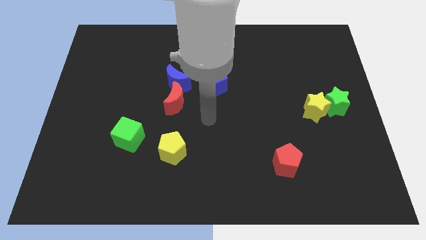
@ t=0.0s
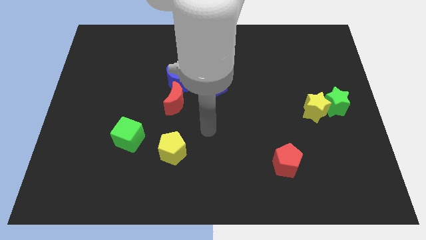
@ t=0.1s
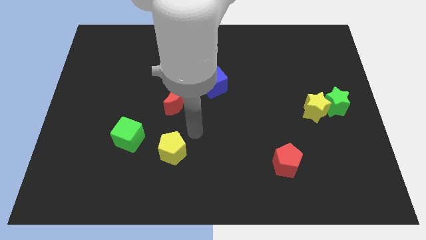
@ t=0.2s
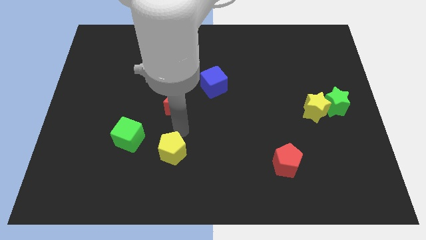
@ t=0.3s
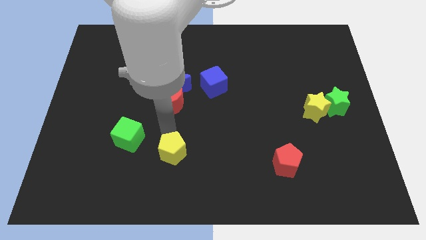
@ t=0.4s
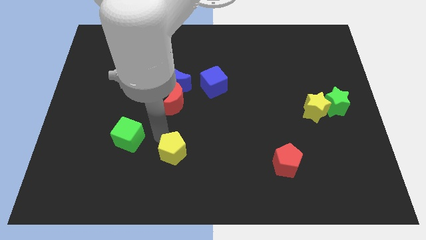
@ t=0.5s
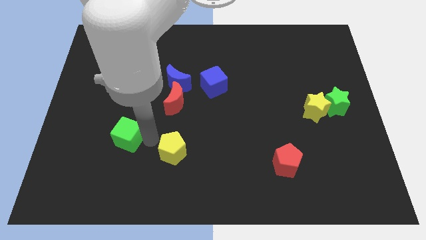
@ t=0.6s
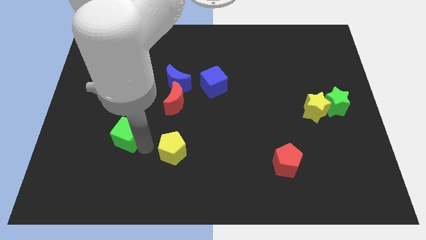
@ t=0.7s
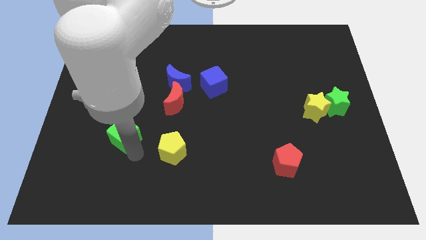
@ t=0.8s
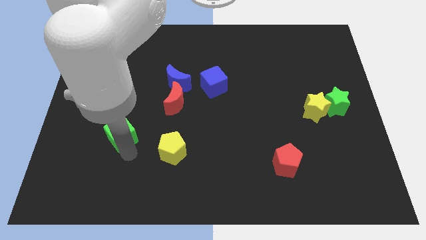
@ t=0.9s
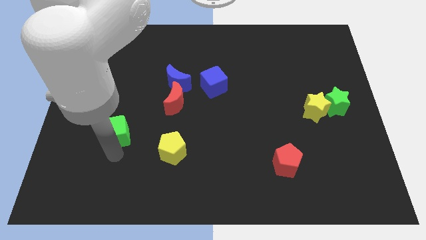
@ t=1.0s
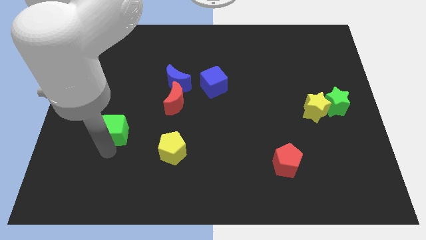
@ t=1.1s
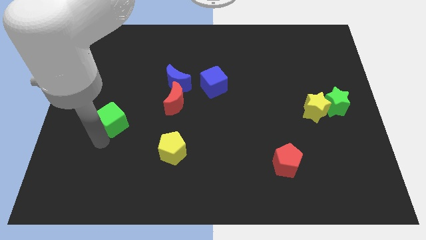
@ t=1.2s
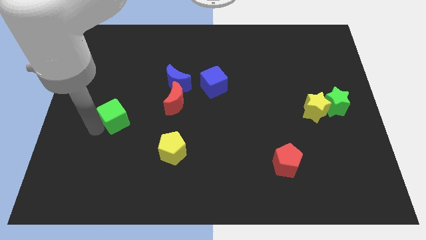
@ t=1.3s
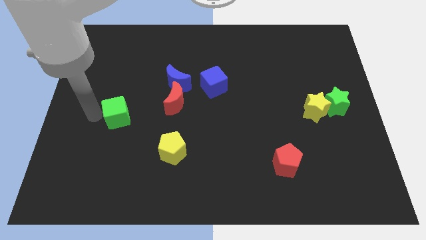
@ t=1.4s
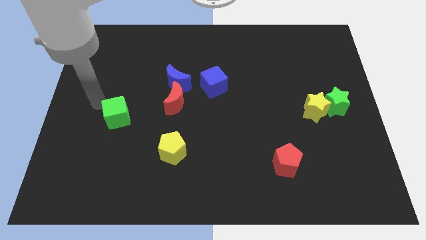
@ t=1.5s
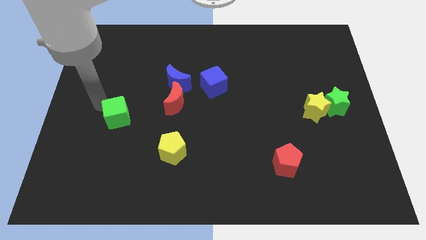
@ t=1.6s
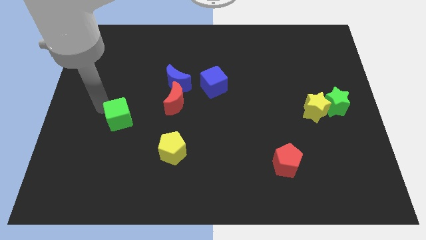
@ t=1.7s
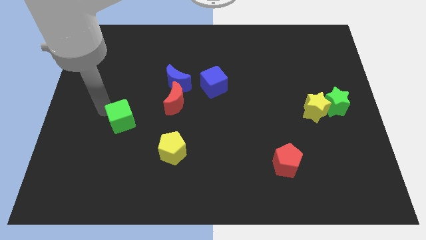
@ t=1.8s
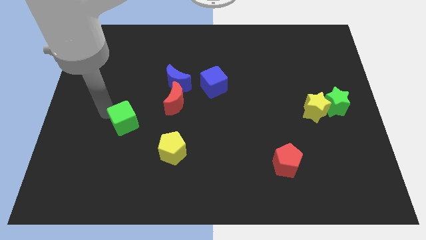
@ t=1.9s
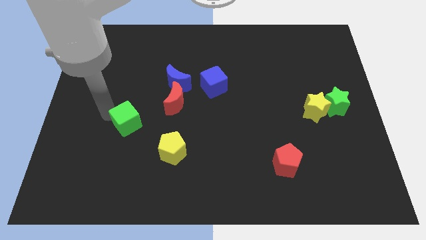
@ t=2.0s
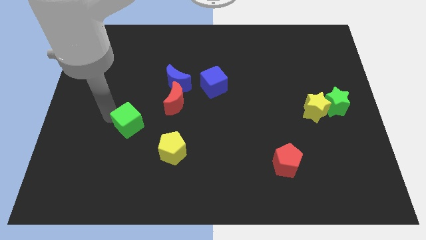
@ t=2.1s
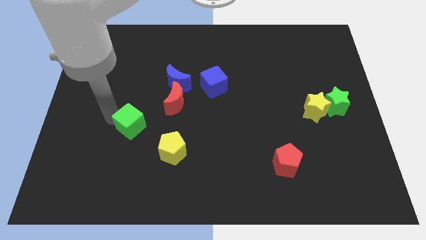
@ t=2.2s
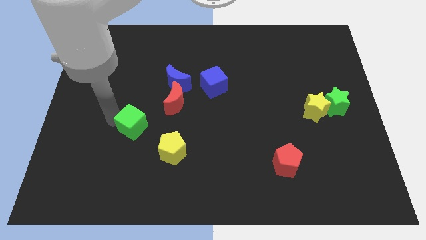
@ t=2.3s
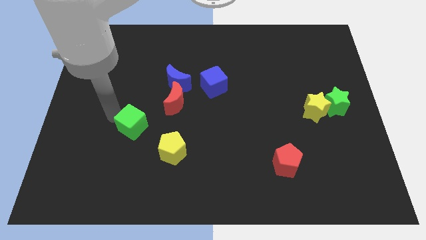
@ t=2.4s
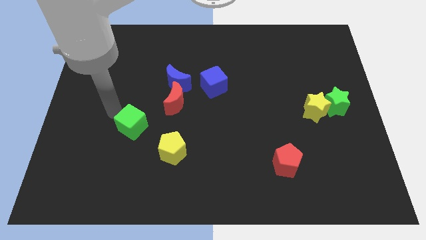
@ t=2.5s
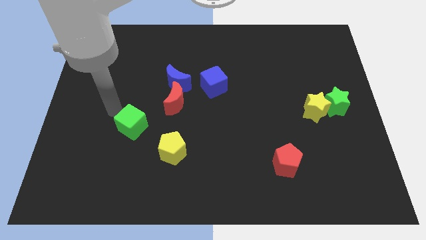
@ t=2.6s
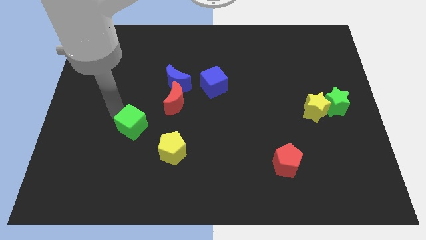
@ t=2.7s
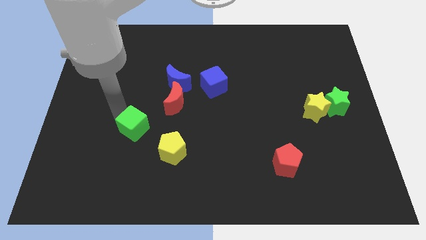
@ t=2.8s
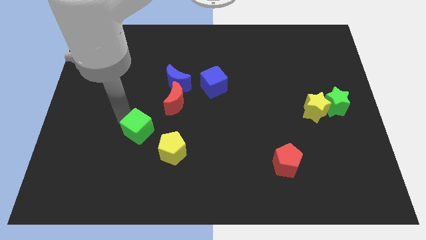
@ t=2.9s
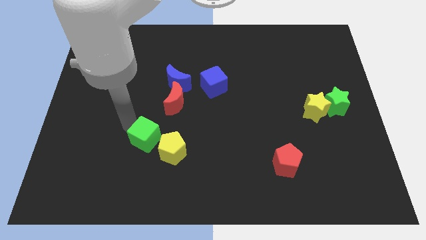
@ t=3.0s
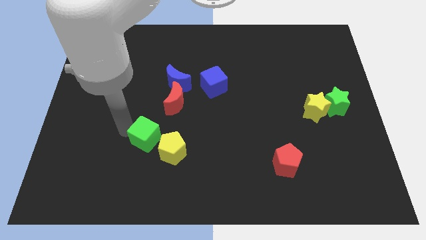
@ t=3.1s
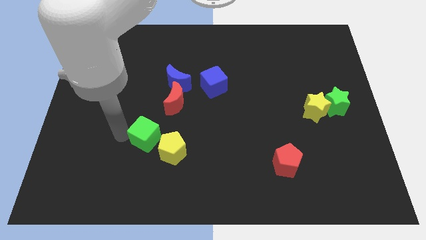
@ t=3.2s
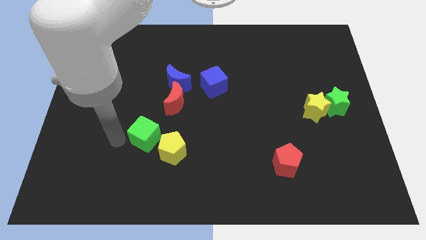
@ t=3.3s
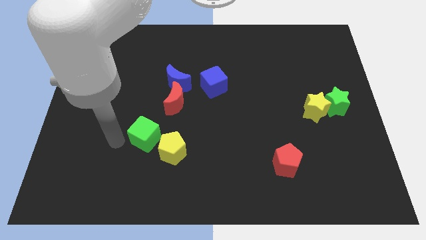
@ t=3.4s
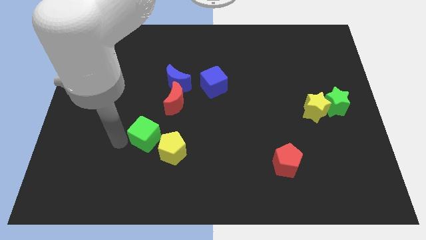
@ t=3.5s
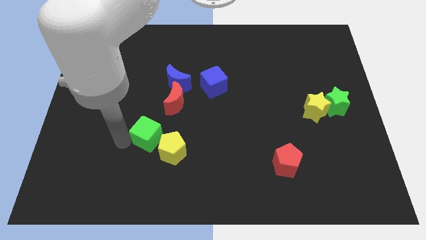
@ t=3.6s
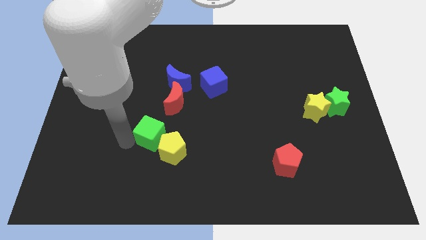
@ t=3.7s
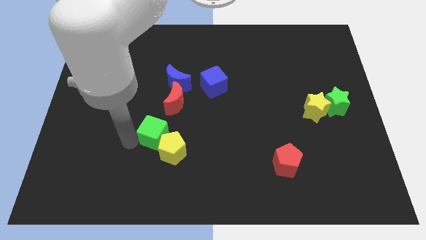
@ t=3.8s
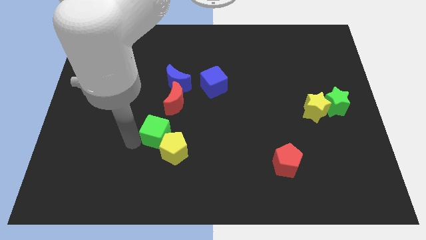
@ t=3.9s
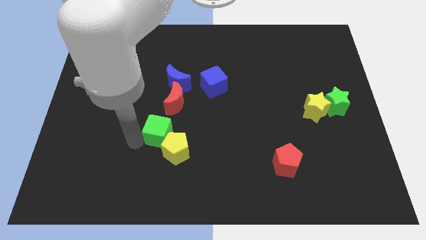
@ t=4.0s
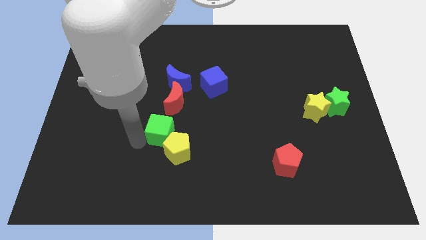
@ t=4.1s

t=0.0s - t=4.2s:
push the green cube to the right a little

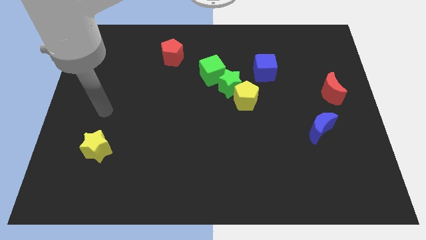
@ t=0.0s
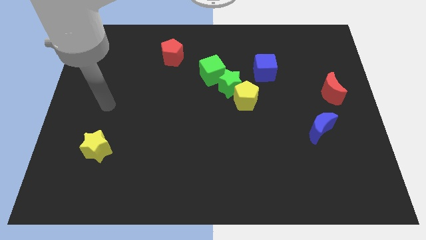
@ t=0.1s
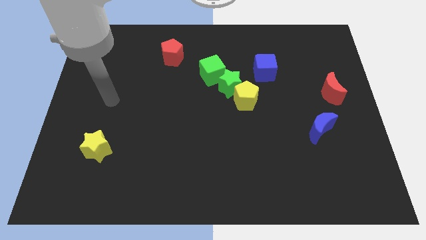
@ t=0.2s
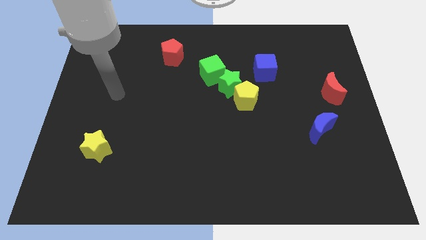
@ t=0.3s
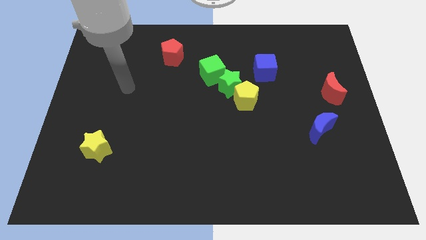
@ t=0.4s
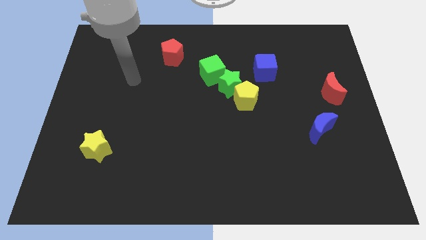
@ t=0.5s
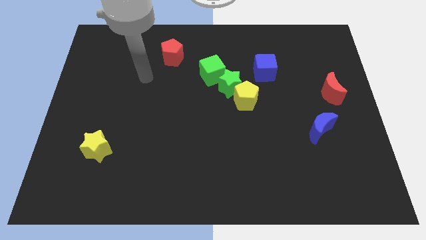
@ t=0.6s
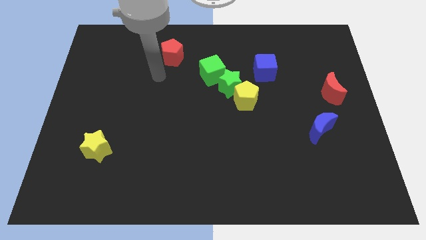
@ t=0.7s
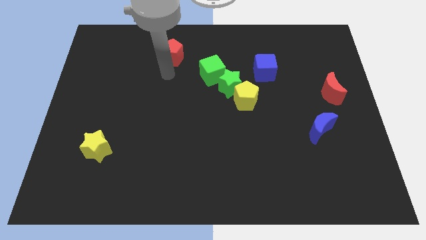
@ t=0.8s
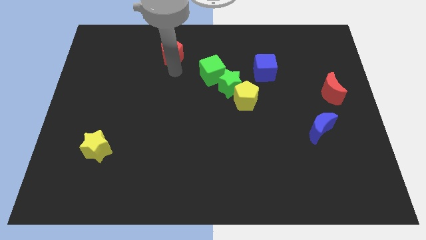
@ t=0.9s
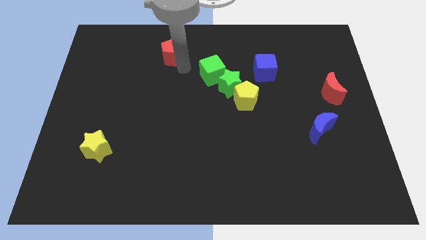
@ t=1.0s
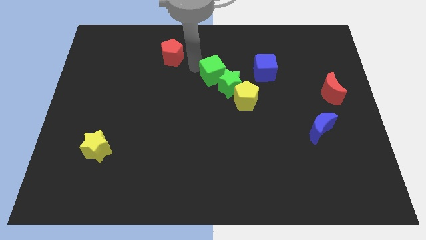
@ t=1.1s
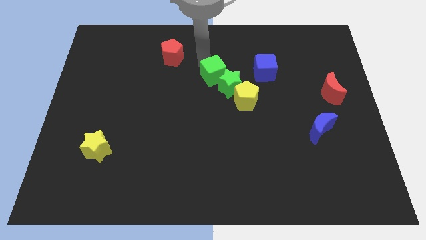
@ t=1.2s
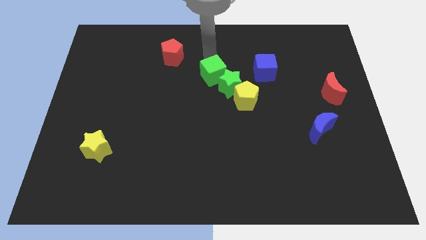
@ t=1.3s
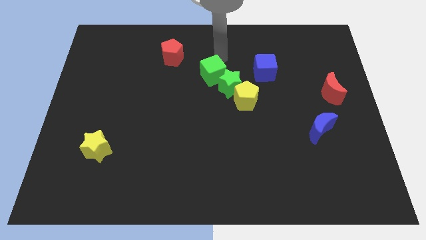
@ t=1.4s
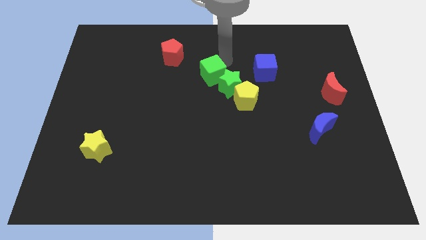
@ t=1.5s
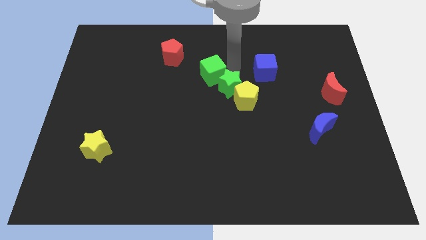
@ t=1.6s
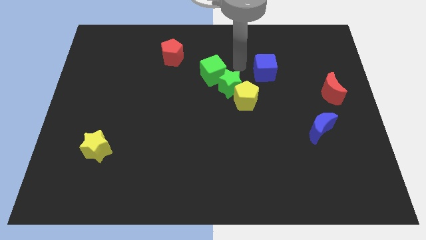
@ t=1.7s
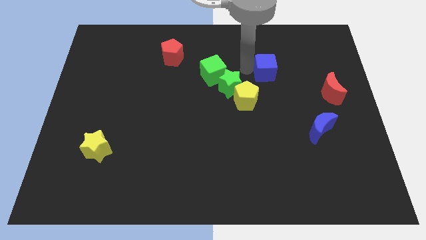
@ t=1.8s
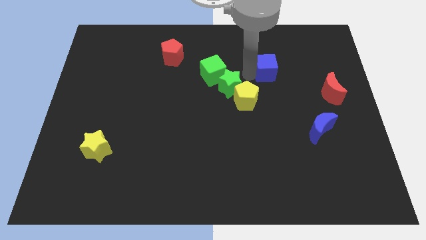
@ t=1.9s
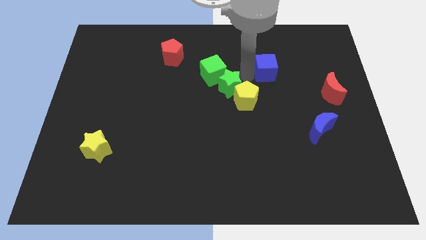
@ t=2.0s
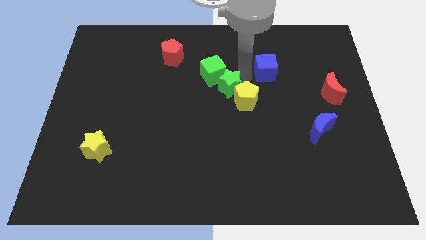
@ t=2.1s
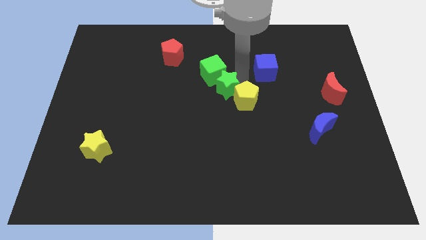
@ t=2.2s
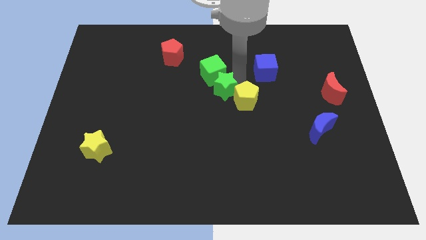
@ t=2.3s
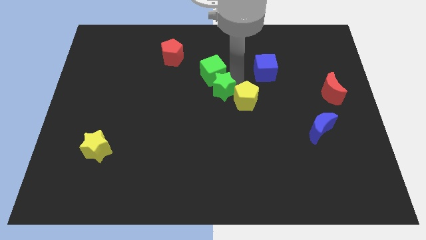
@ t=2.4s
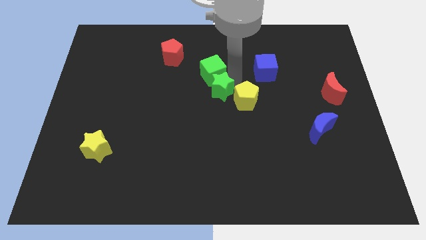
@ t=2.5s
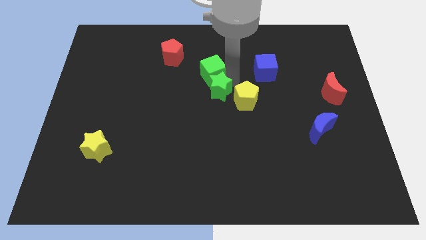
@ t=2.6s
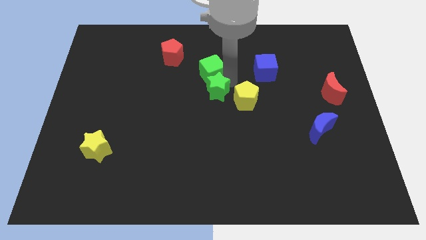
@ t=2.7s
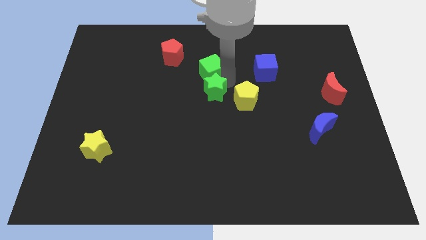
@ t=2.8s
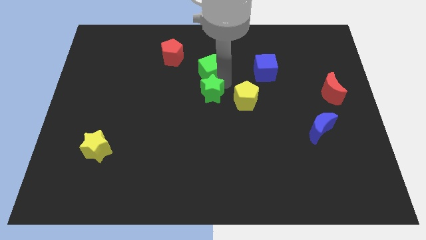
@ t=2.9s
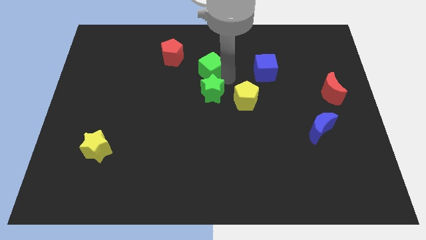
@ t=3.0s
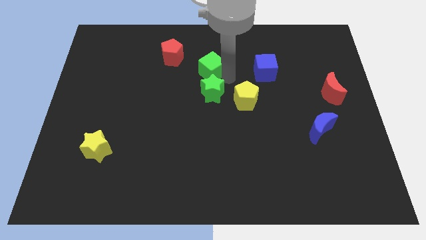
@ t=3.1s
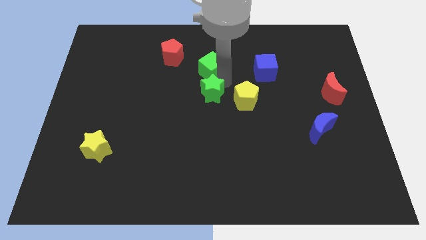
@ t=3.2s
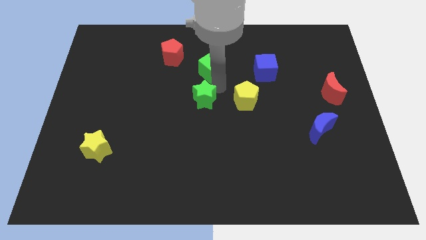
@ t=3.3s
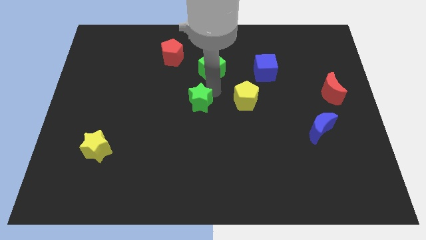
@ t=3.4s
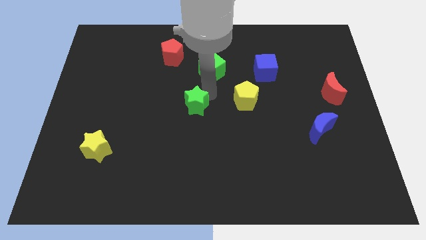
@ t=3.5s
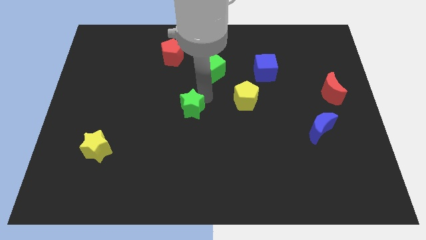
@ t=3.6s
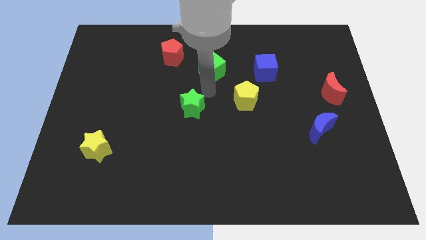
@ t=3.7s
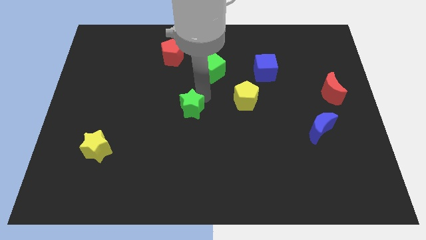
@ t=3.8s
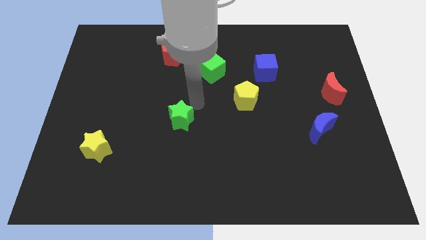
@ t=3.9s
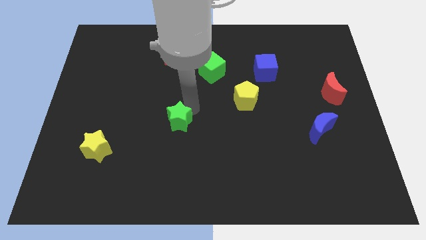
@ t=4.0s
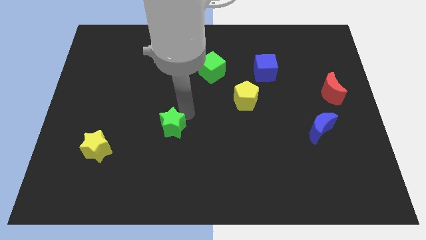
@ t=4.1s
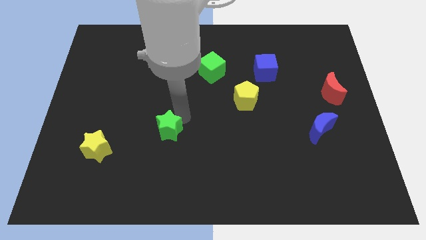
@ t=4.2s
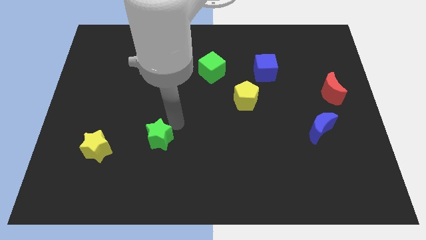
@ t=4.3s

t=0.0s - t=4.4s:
push the green star downwards and left diagonally

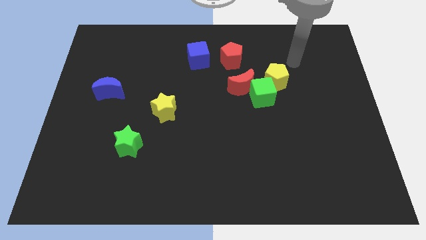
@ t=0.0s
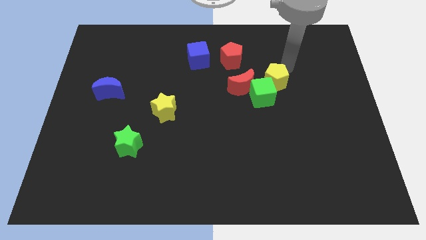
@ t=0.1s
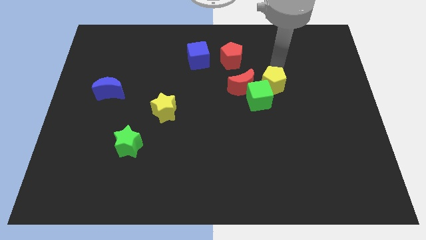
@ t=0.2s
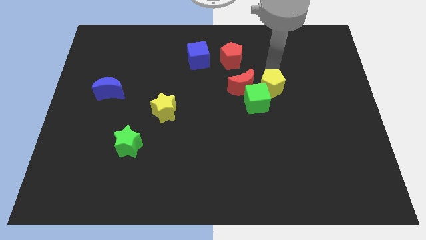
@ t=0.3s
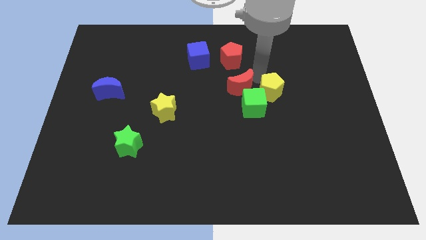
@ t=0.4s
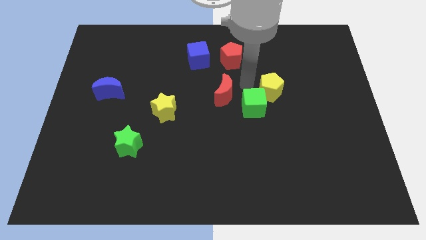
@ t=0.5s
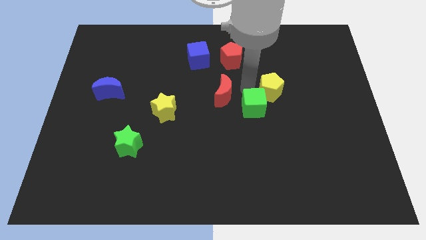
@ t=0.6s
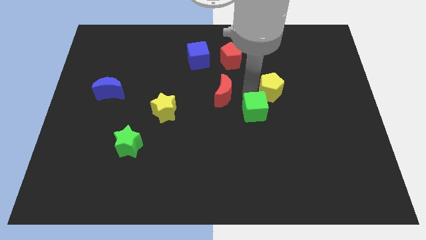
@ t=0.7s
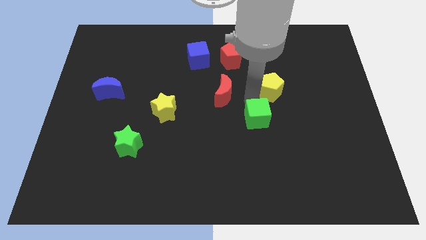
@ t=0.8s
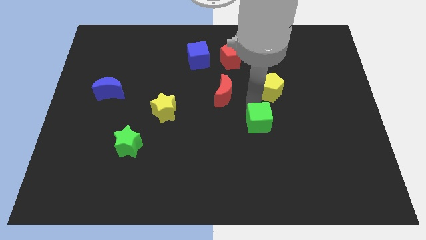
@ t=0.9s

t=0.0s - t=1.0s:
push the green cube somewhat downwards
